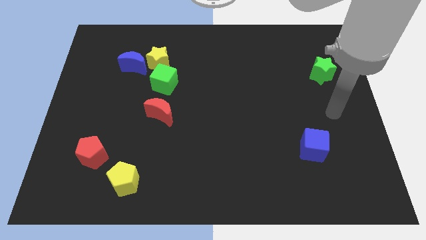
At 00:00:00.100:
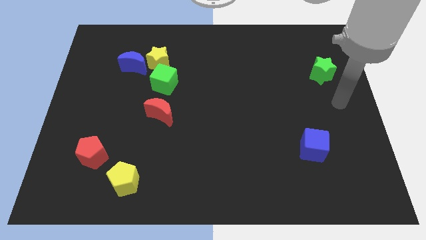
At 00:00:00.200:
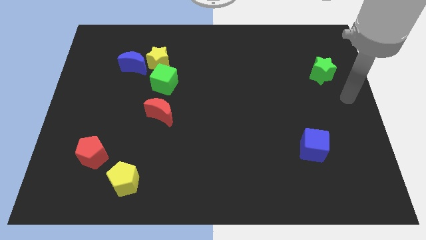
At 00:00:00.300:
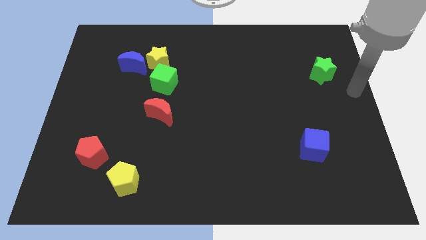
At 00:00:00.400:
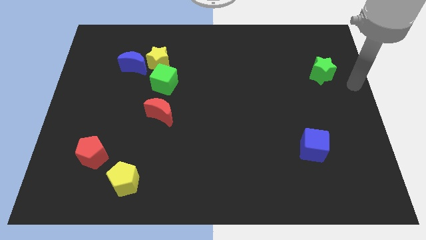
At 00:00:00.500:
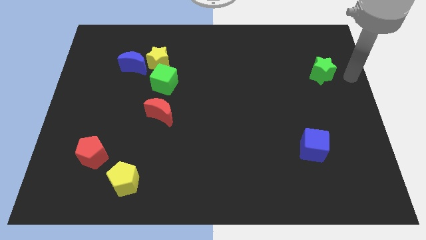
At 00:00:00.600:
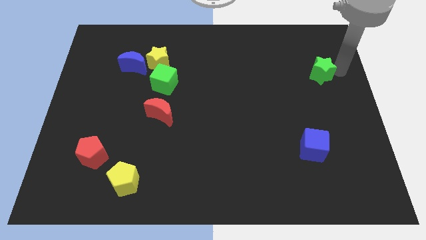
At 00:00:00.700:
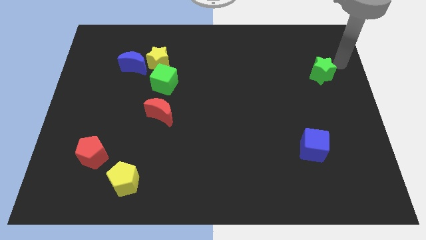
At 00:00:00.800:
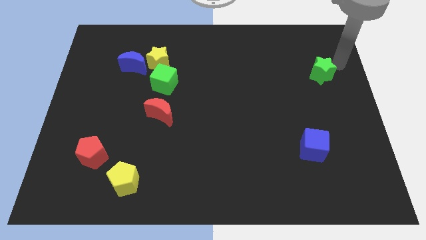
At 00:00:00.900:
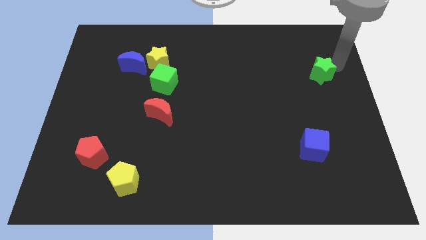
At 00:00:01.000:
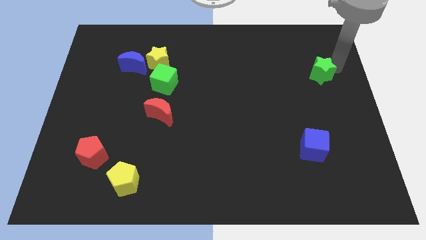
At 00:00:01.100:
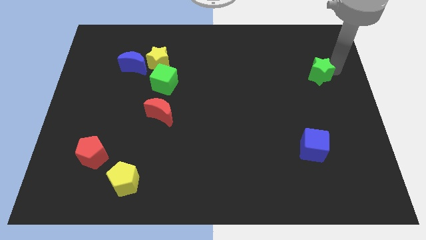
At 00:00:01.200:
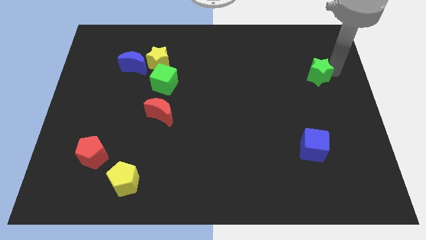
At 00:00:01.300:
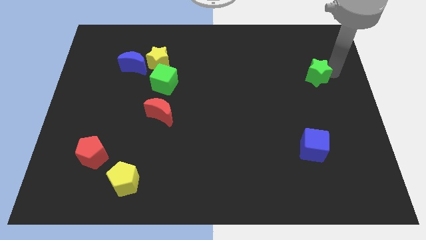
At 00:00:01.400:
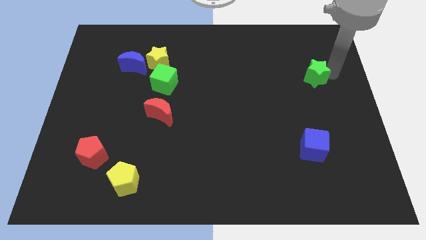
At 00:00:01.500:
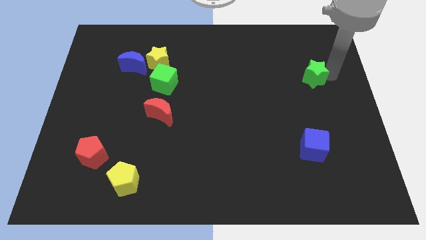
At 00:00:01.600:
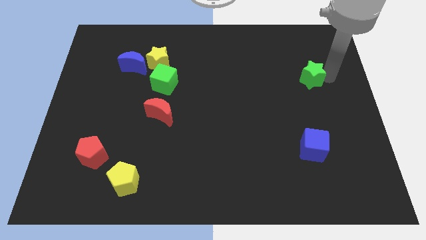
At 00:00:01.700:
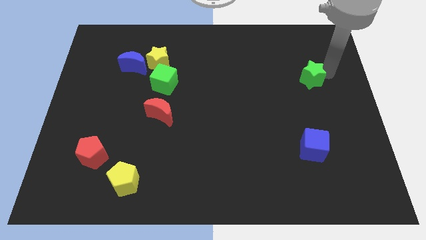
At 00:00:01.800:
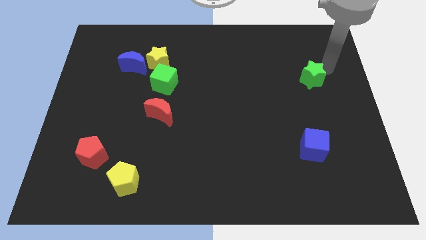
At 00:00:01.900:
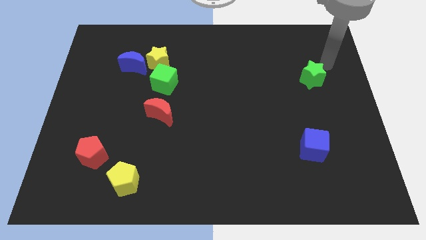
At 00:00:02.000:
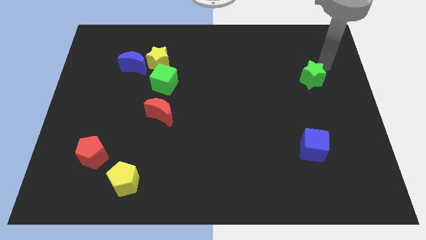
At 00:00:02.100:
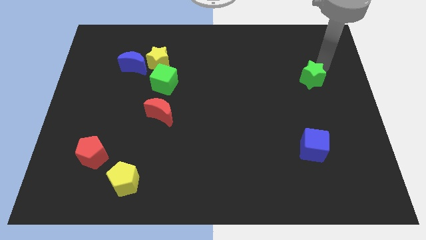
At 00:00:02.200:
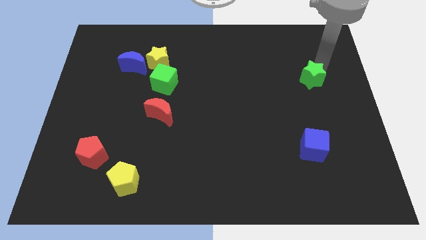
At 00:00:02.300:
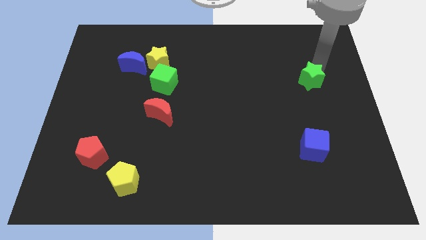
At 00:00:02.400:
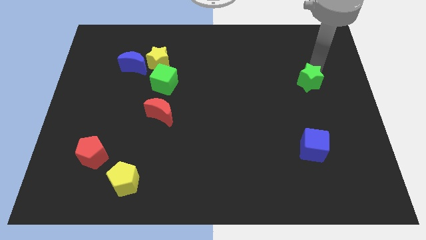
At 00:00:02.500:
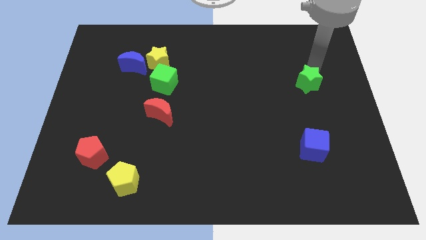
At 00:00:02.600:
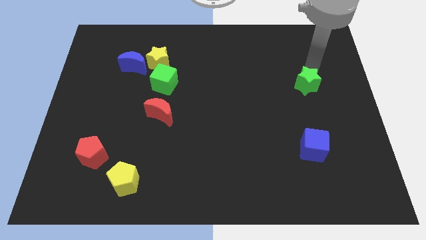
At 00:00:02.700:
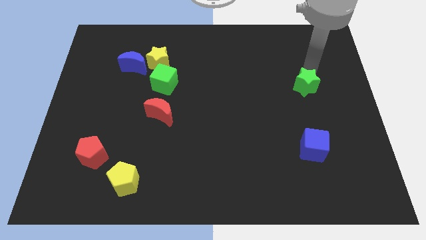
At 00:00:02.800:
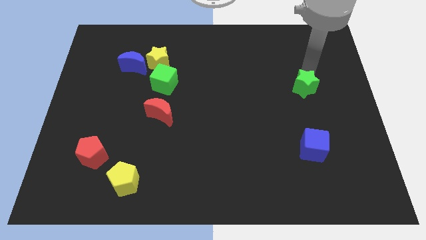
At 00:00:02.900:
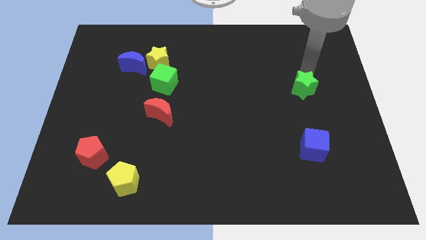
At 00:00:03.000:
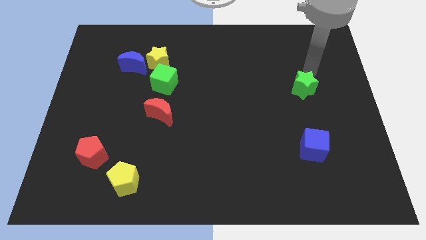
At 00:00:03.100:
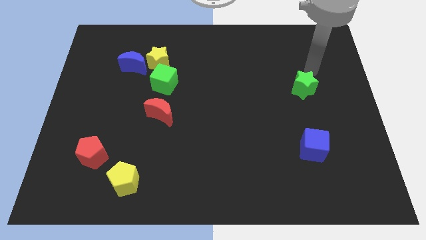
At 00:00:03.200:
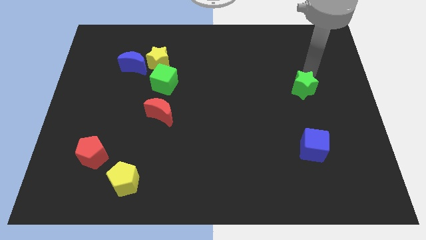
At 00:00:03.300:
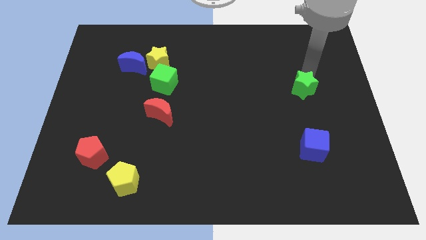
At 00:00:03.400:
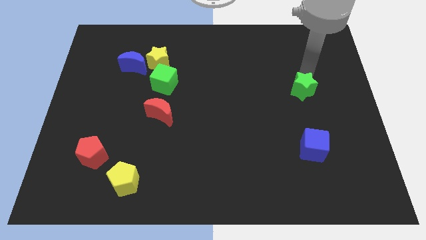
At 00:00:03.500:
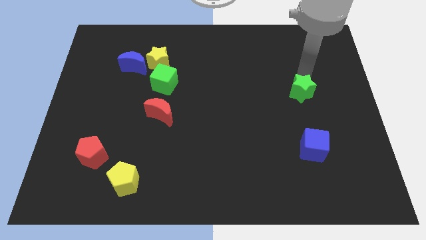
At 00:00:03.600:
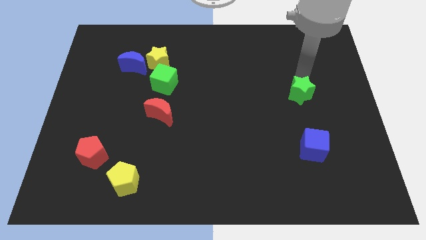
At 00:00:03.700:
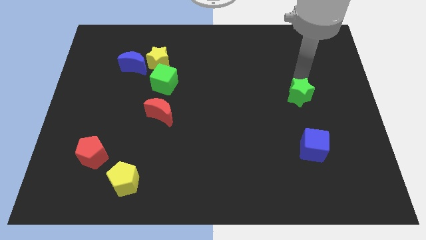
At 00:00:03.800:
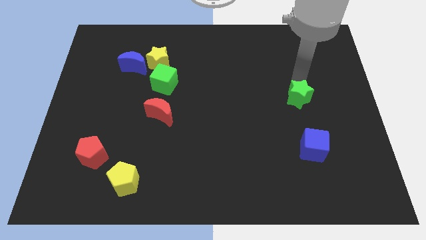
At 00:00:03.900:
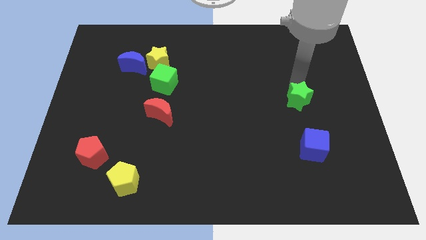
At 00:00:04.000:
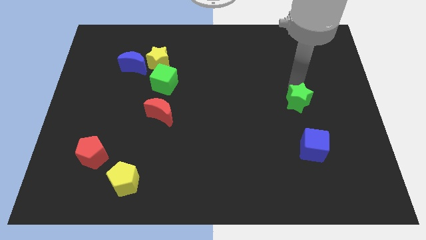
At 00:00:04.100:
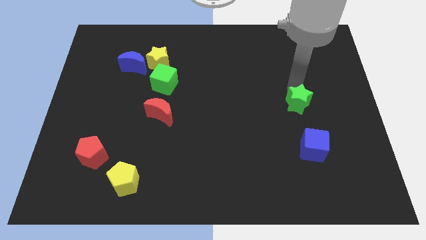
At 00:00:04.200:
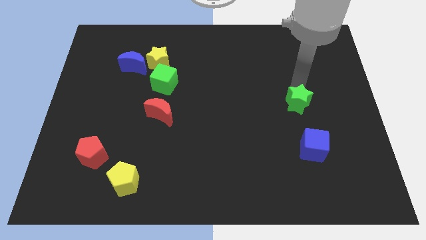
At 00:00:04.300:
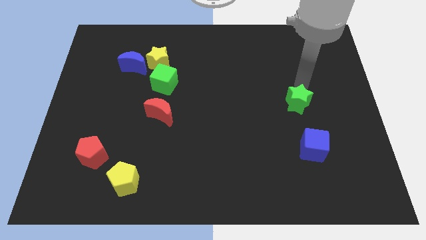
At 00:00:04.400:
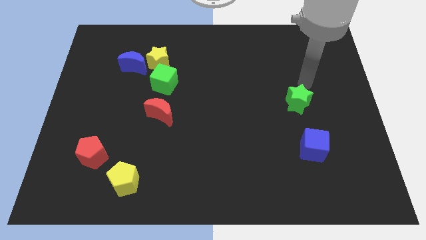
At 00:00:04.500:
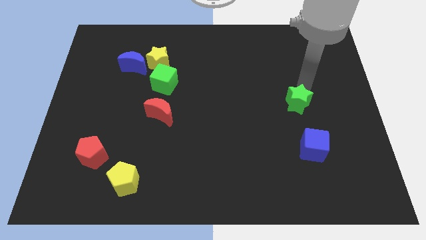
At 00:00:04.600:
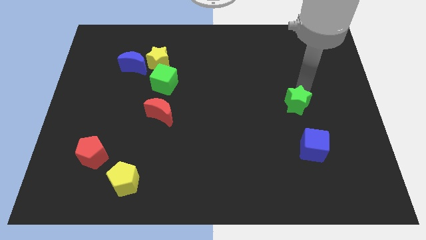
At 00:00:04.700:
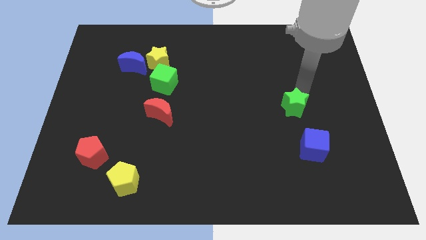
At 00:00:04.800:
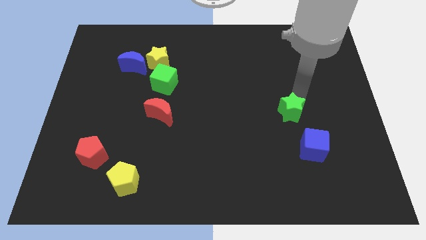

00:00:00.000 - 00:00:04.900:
put the green star to the top left of the blue cube

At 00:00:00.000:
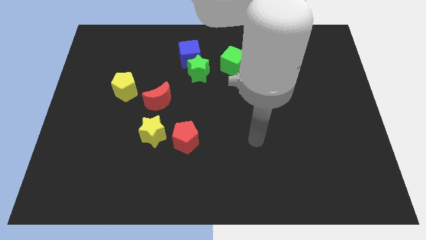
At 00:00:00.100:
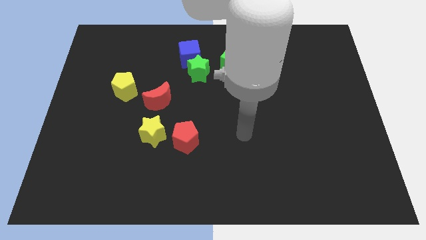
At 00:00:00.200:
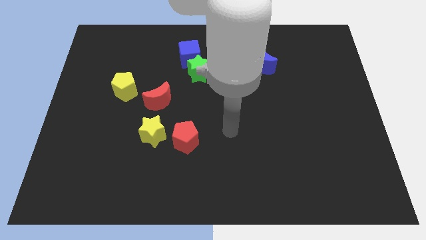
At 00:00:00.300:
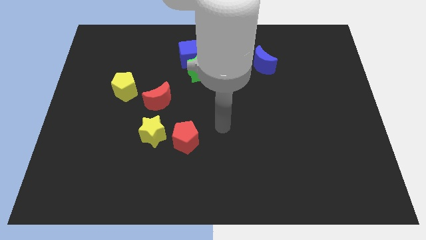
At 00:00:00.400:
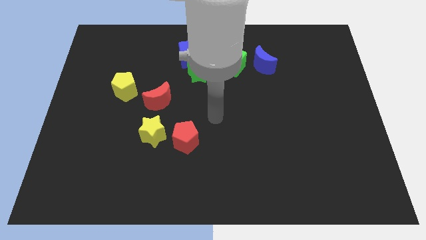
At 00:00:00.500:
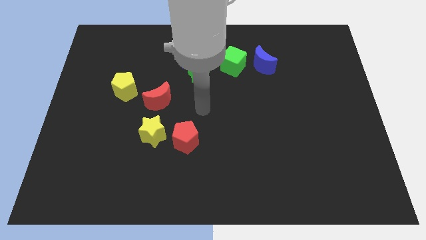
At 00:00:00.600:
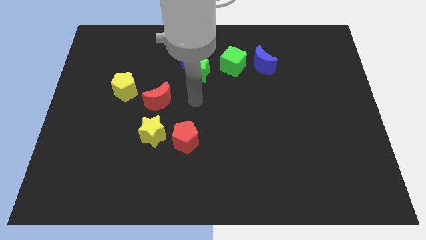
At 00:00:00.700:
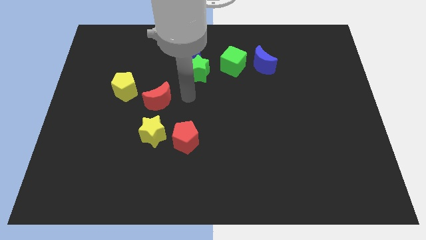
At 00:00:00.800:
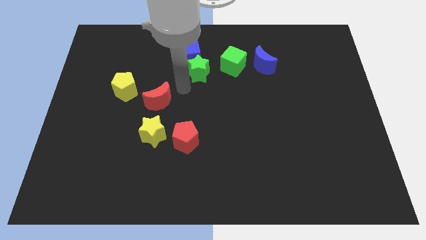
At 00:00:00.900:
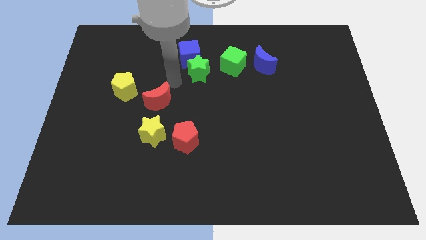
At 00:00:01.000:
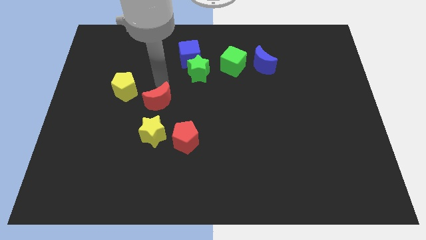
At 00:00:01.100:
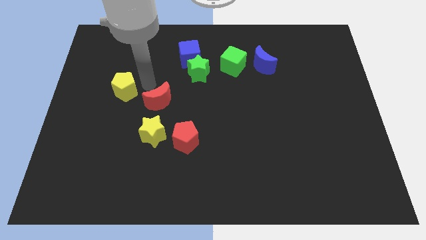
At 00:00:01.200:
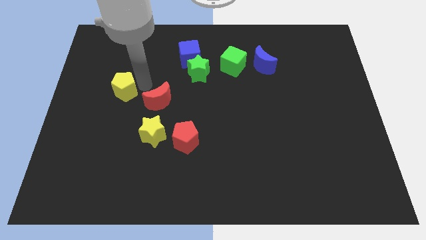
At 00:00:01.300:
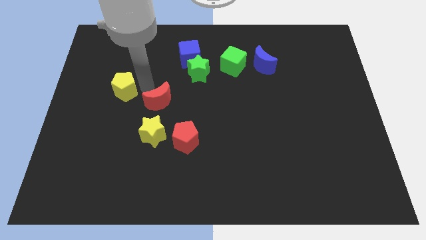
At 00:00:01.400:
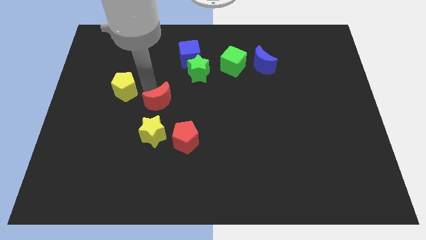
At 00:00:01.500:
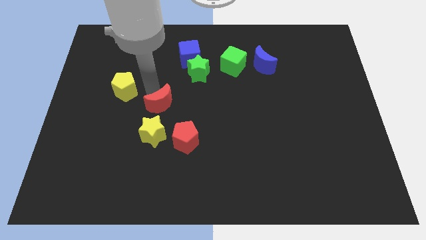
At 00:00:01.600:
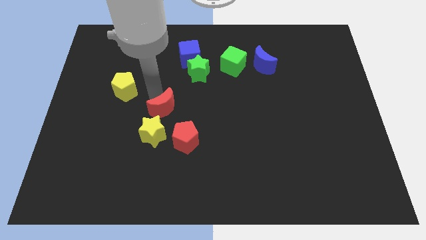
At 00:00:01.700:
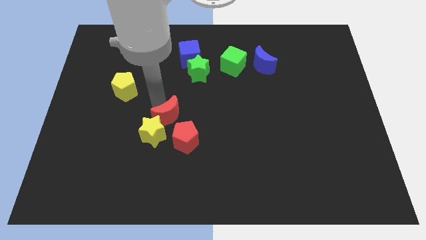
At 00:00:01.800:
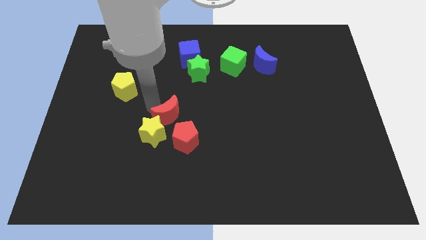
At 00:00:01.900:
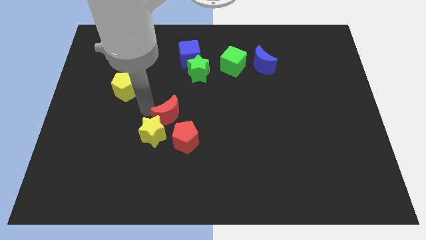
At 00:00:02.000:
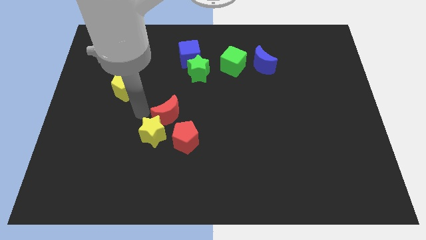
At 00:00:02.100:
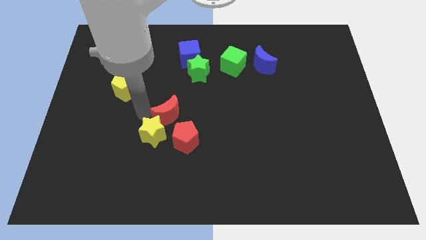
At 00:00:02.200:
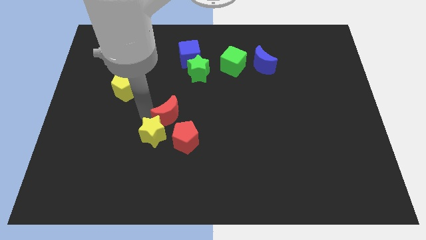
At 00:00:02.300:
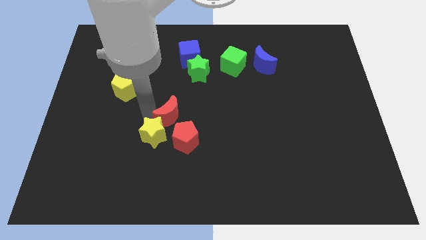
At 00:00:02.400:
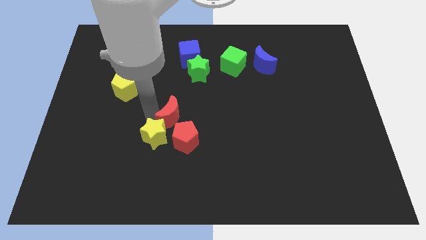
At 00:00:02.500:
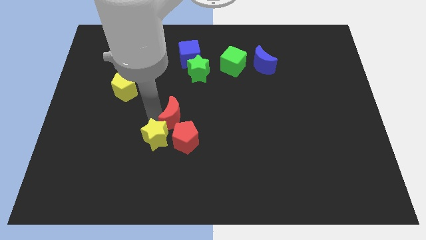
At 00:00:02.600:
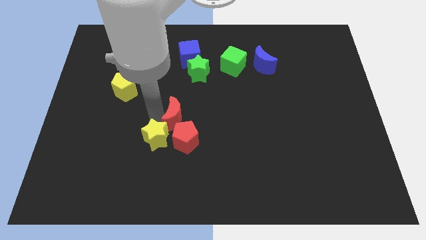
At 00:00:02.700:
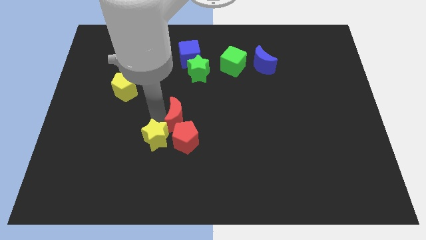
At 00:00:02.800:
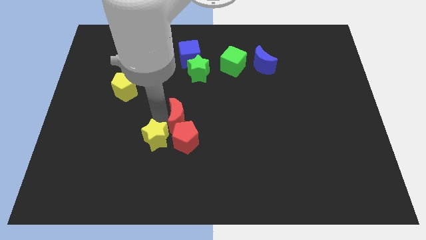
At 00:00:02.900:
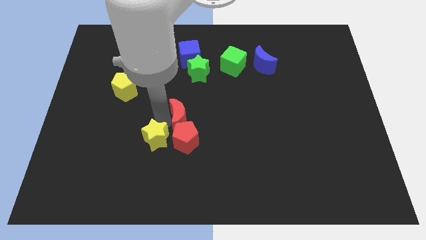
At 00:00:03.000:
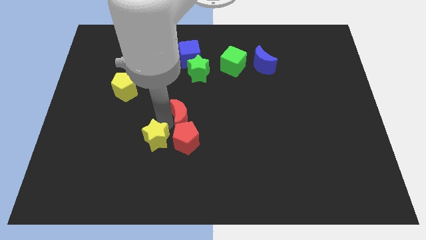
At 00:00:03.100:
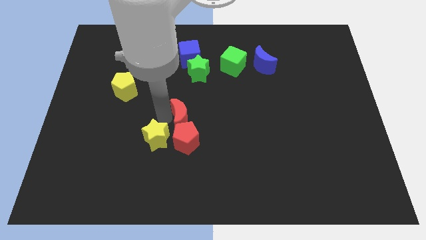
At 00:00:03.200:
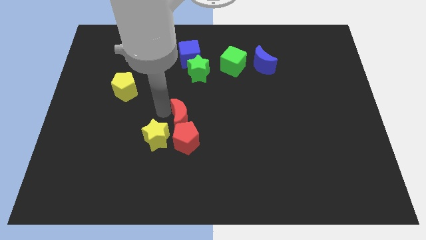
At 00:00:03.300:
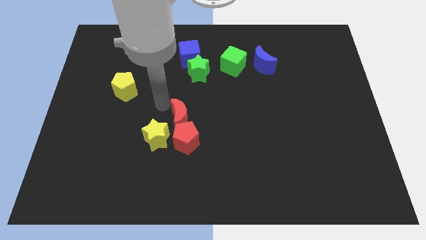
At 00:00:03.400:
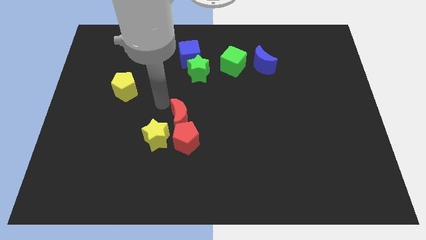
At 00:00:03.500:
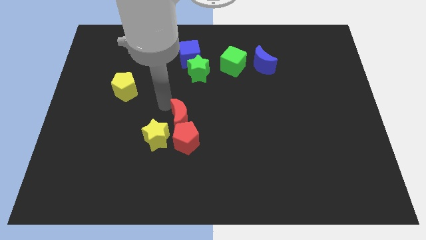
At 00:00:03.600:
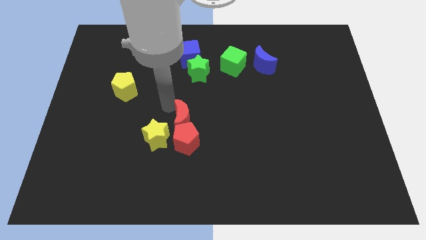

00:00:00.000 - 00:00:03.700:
push the red moon to the right of the yellow star
